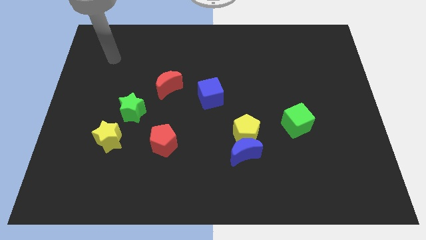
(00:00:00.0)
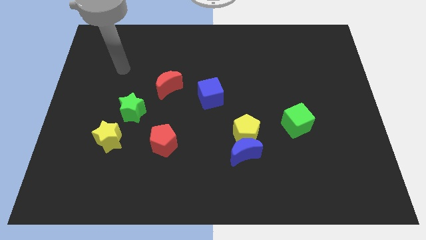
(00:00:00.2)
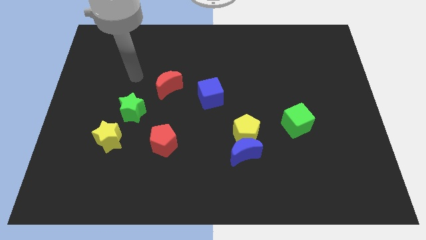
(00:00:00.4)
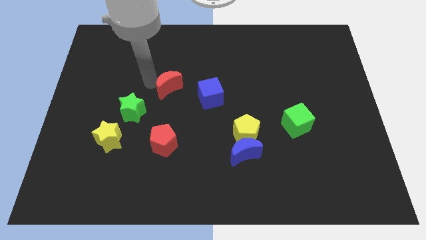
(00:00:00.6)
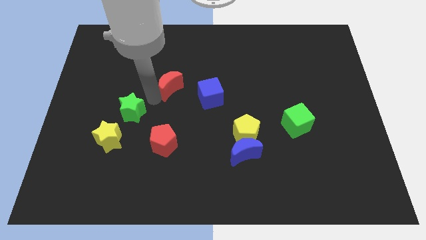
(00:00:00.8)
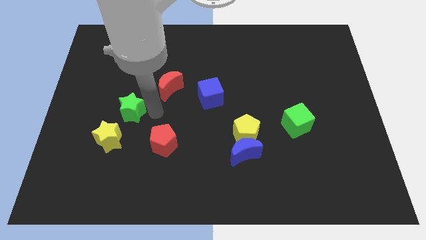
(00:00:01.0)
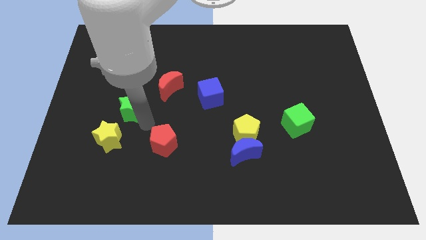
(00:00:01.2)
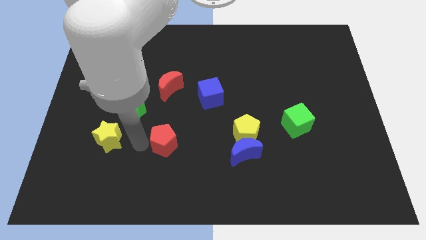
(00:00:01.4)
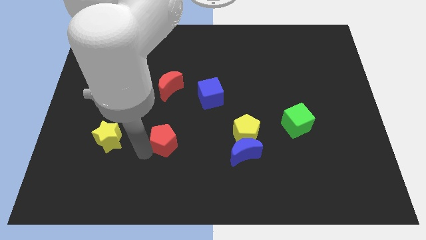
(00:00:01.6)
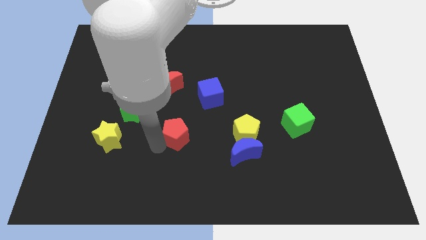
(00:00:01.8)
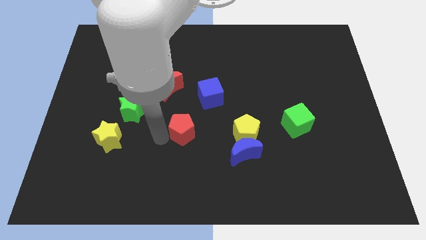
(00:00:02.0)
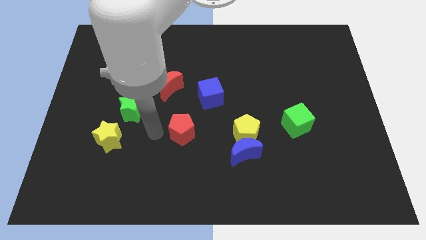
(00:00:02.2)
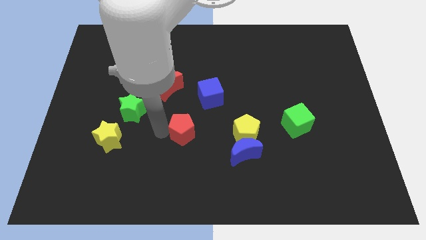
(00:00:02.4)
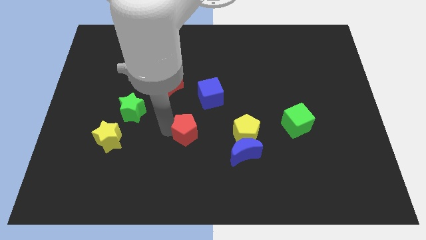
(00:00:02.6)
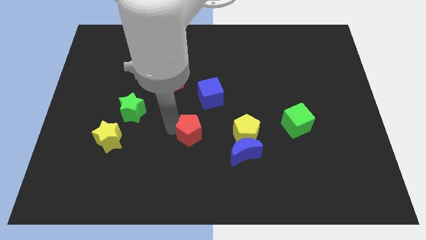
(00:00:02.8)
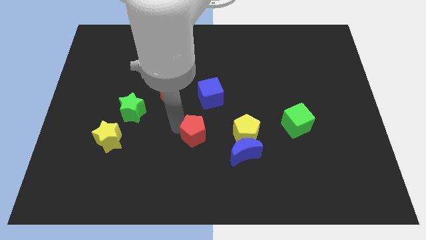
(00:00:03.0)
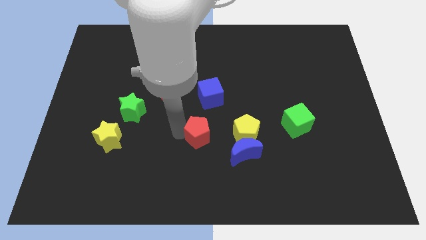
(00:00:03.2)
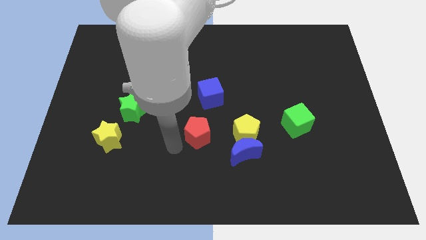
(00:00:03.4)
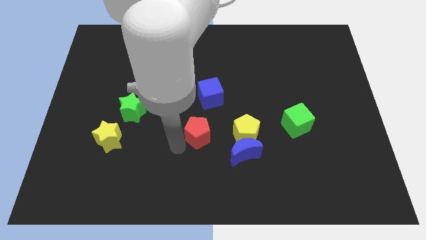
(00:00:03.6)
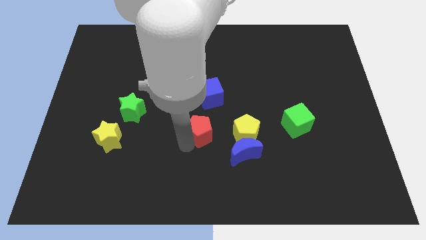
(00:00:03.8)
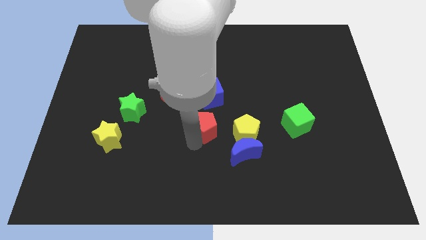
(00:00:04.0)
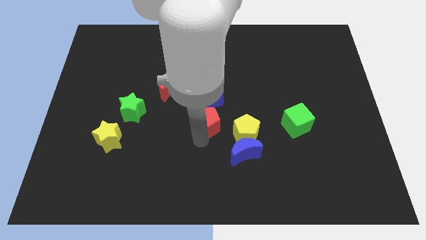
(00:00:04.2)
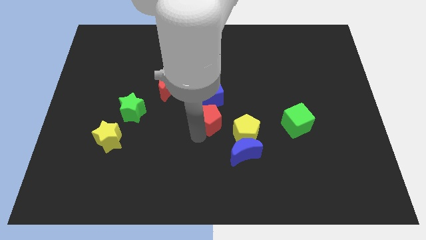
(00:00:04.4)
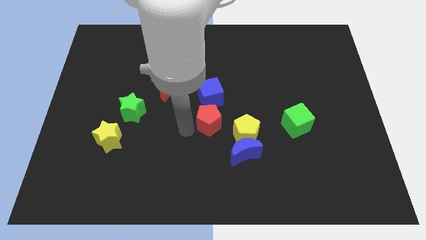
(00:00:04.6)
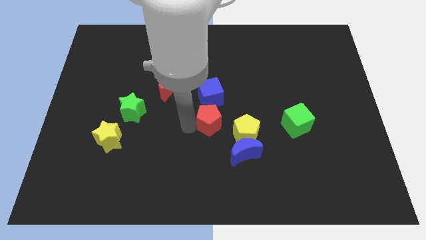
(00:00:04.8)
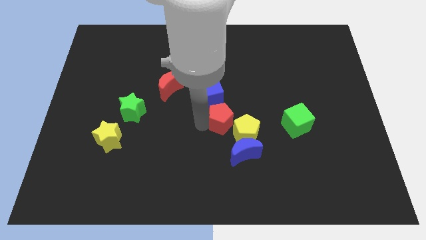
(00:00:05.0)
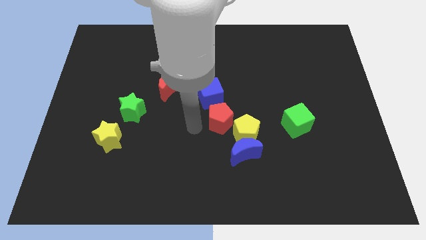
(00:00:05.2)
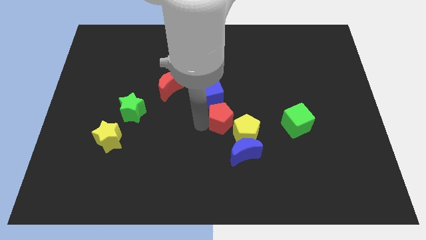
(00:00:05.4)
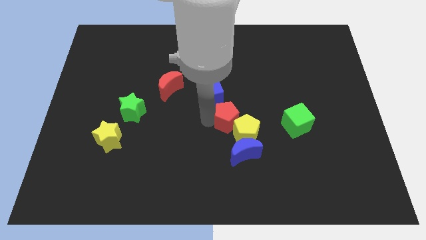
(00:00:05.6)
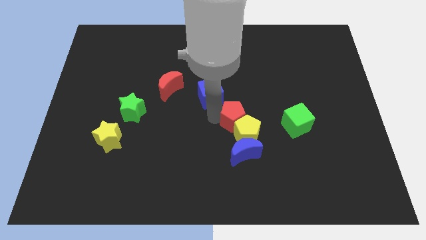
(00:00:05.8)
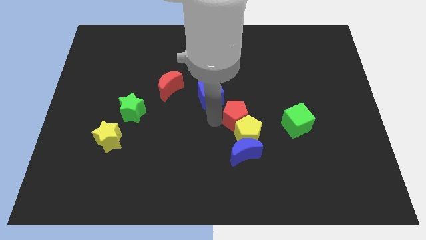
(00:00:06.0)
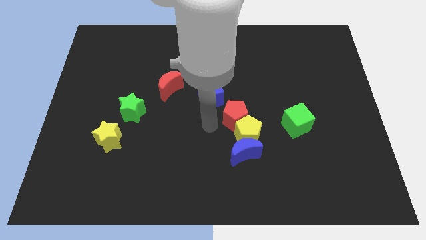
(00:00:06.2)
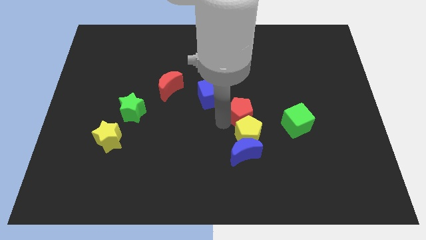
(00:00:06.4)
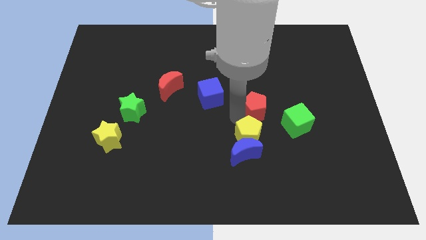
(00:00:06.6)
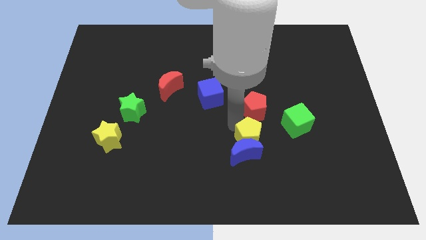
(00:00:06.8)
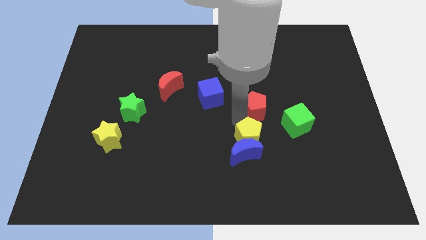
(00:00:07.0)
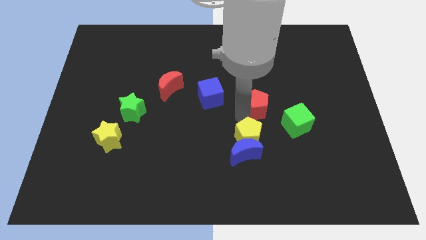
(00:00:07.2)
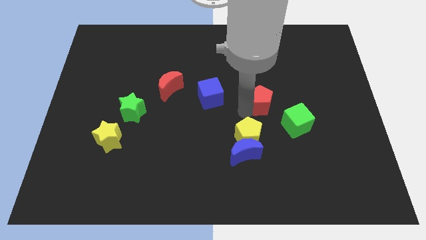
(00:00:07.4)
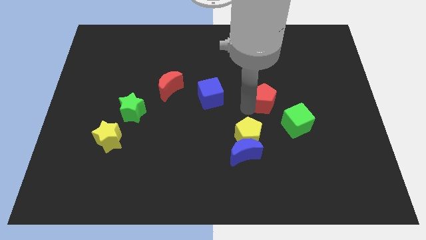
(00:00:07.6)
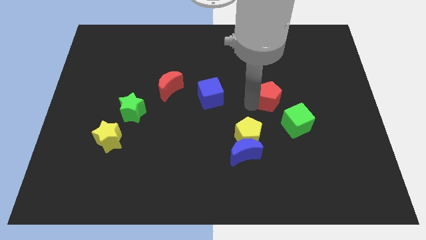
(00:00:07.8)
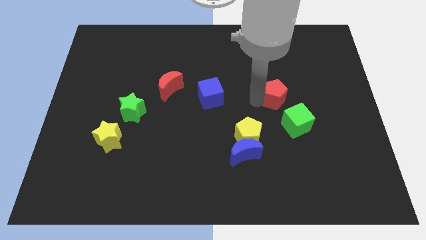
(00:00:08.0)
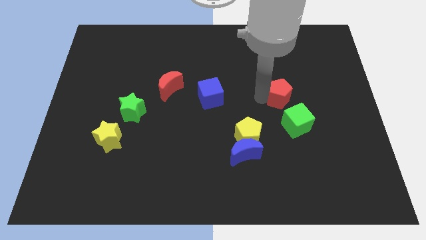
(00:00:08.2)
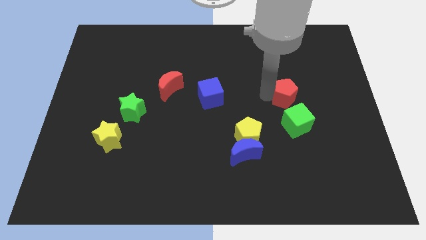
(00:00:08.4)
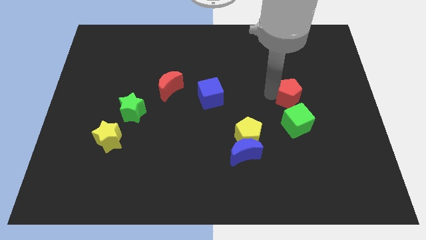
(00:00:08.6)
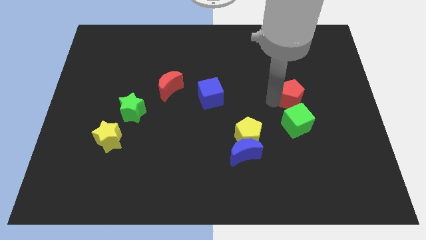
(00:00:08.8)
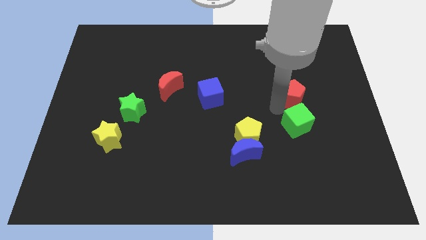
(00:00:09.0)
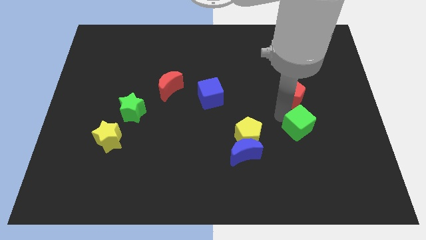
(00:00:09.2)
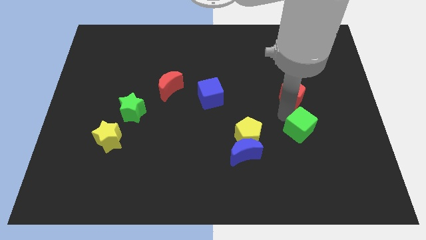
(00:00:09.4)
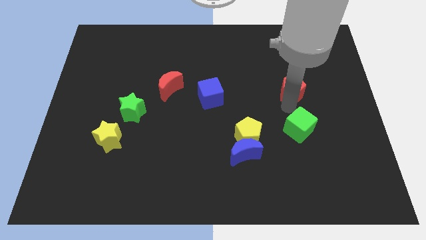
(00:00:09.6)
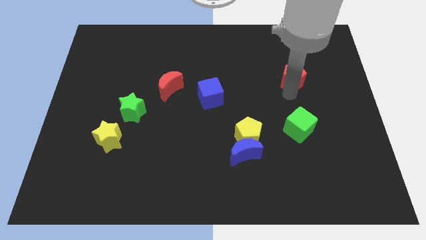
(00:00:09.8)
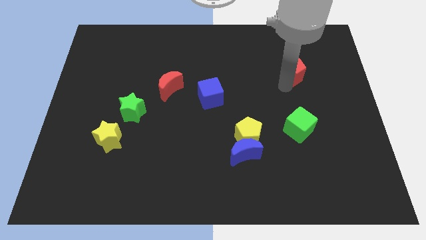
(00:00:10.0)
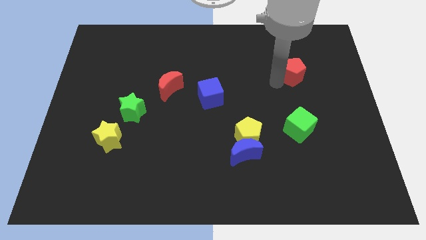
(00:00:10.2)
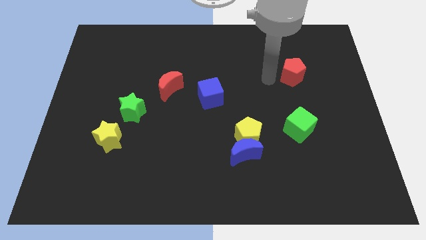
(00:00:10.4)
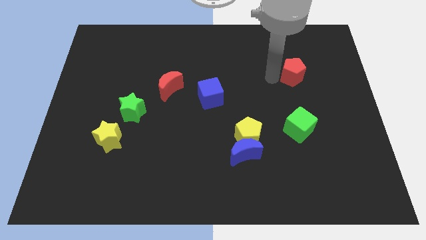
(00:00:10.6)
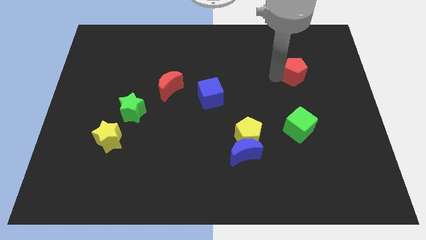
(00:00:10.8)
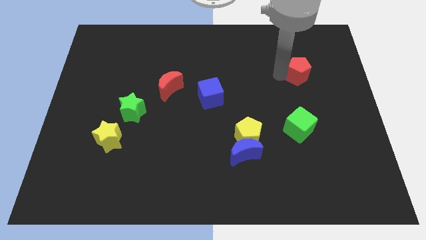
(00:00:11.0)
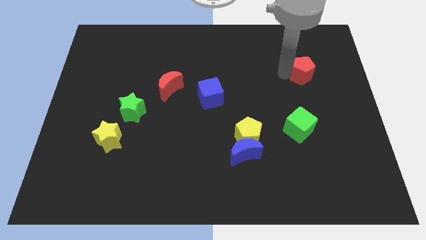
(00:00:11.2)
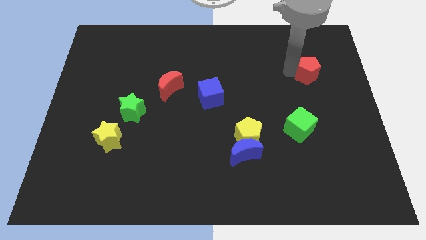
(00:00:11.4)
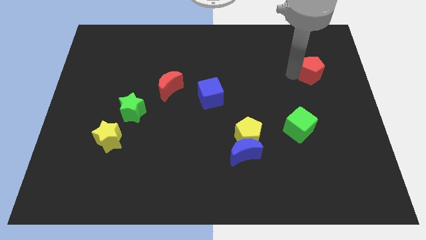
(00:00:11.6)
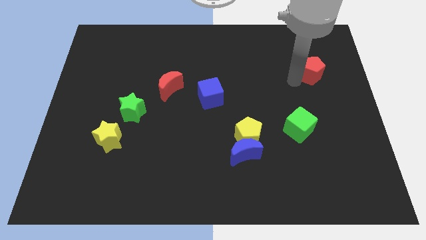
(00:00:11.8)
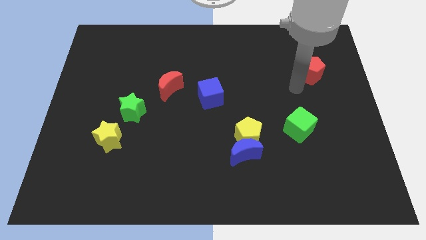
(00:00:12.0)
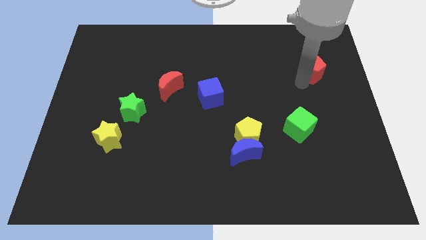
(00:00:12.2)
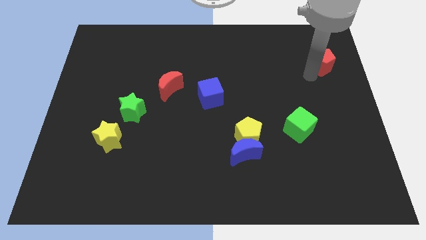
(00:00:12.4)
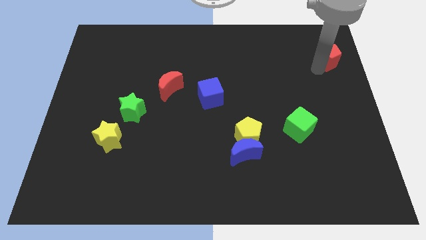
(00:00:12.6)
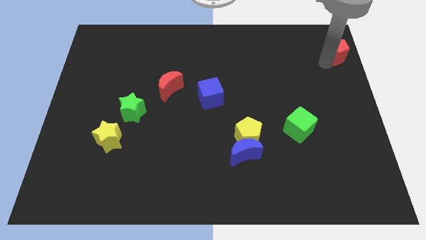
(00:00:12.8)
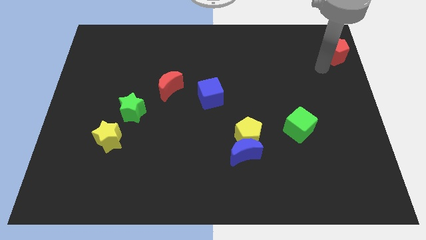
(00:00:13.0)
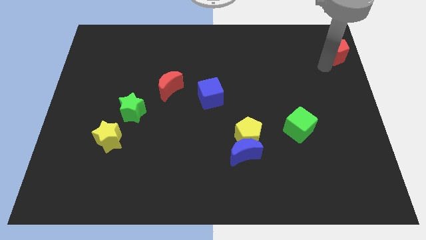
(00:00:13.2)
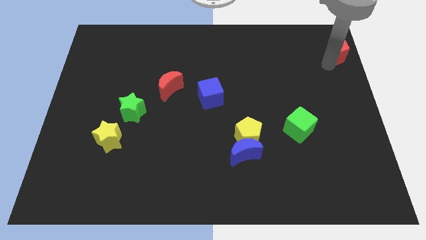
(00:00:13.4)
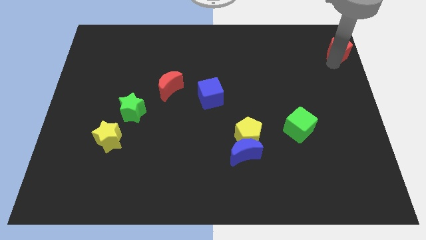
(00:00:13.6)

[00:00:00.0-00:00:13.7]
push the red pentagon to the upper right corner
